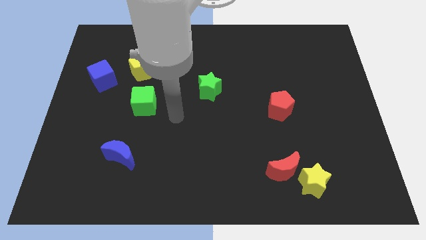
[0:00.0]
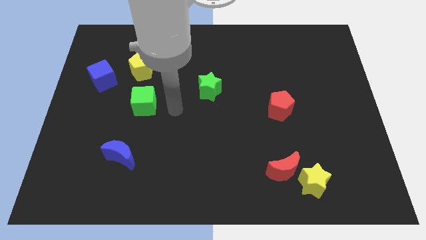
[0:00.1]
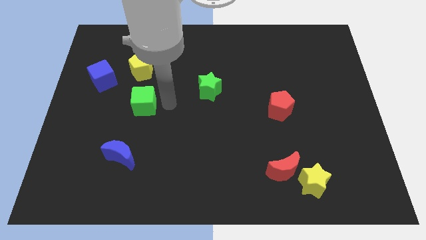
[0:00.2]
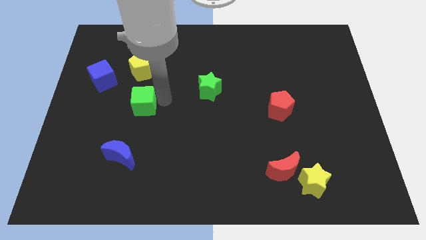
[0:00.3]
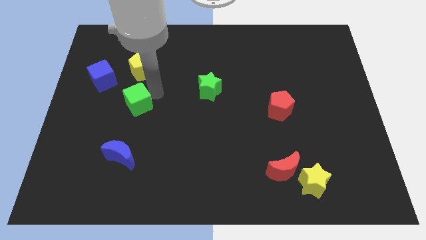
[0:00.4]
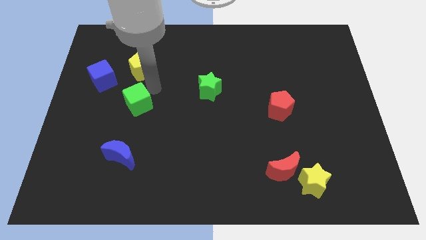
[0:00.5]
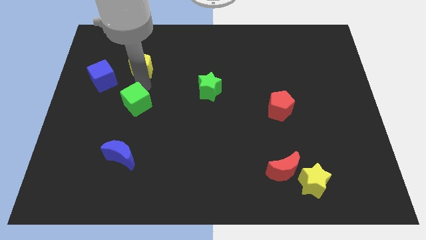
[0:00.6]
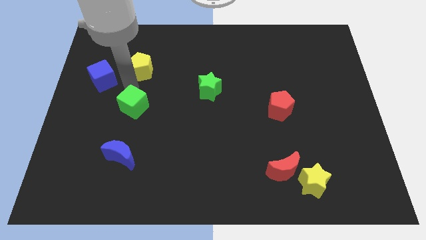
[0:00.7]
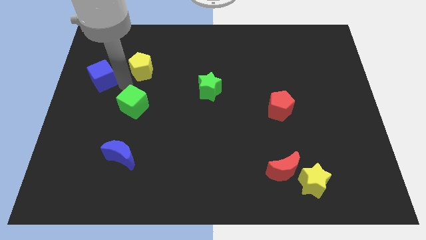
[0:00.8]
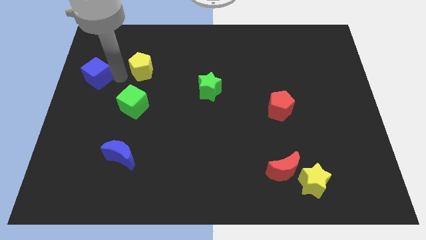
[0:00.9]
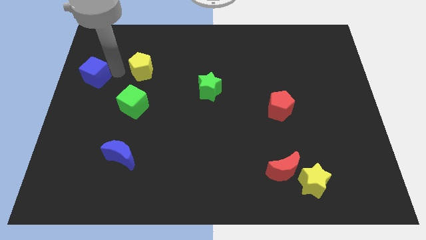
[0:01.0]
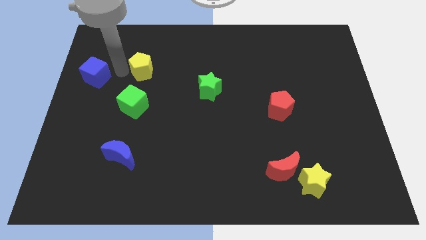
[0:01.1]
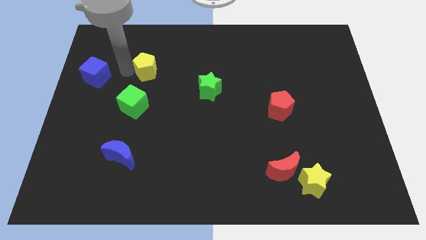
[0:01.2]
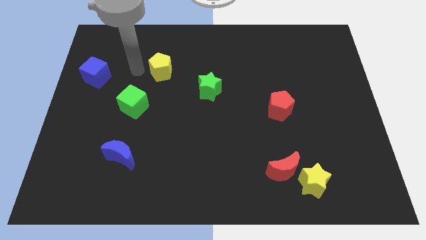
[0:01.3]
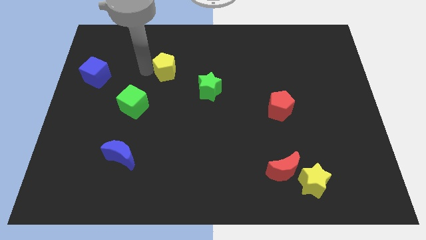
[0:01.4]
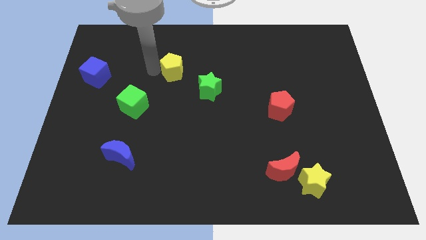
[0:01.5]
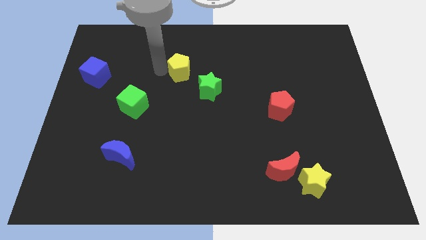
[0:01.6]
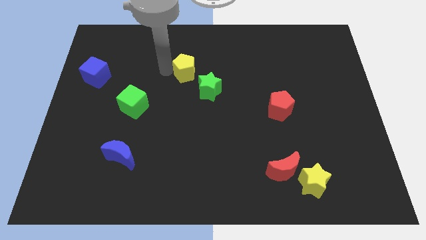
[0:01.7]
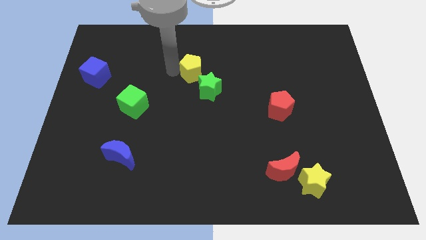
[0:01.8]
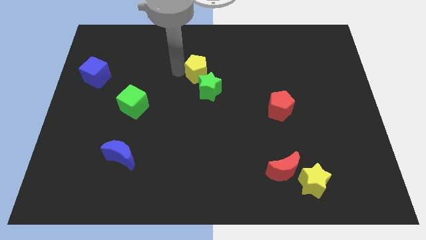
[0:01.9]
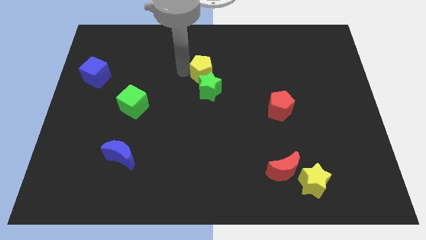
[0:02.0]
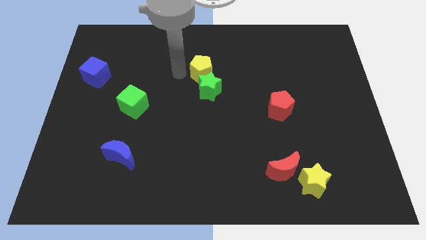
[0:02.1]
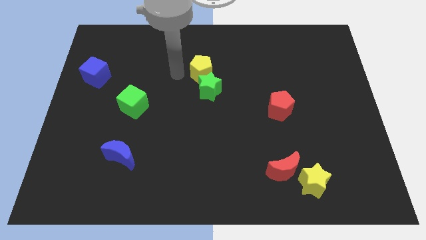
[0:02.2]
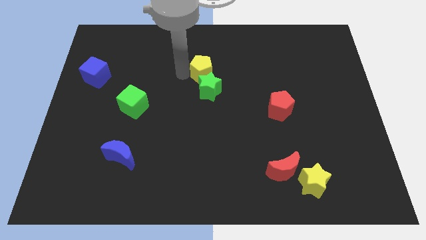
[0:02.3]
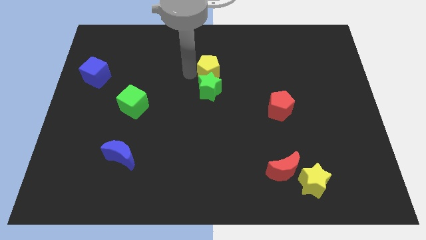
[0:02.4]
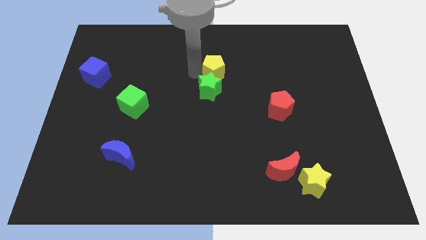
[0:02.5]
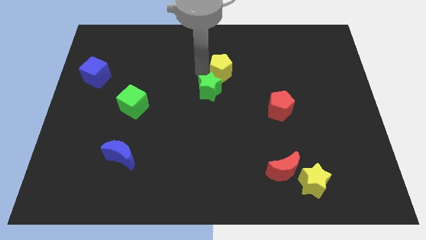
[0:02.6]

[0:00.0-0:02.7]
slide the yellow pentagon to the right

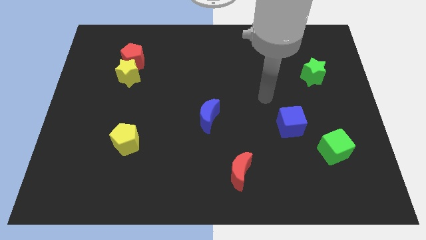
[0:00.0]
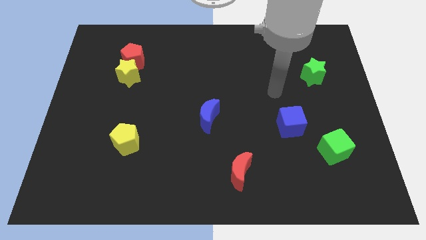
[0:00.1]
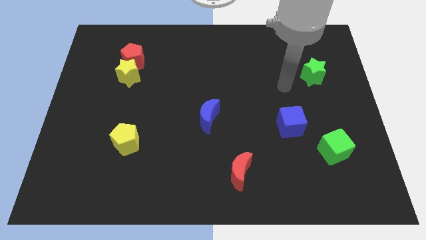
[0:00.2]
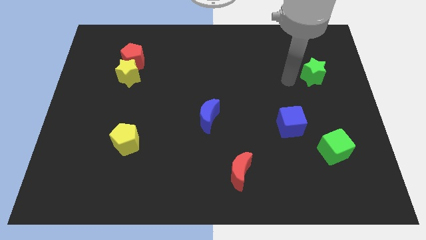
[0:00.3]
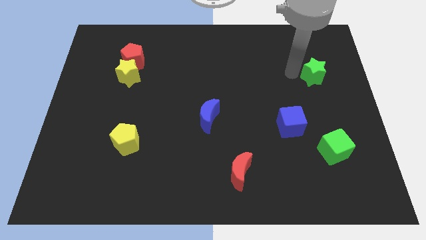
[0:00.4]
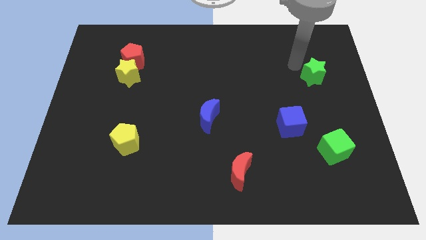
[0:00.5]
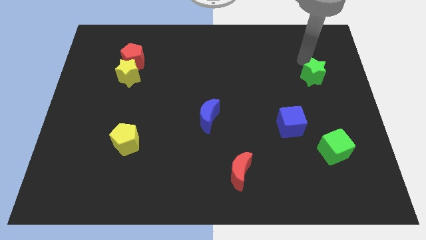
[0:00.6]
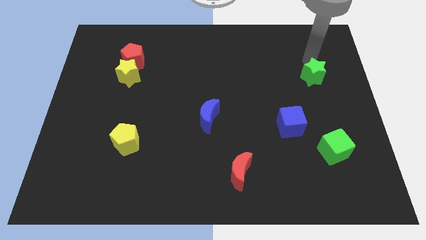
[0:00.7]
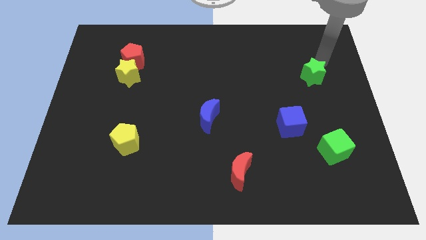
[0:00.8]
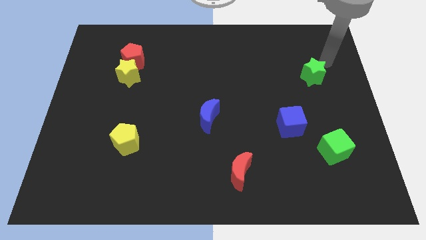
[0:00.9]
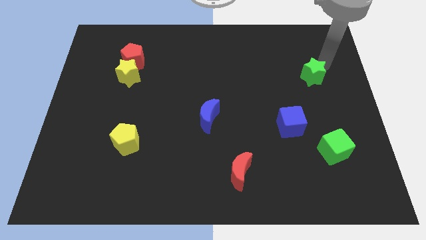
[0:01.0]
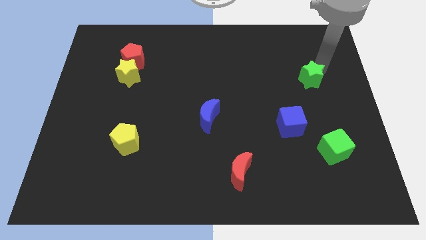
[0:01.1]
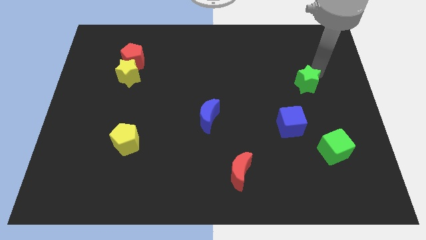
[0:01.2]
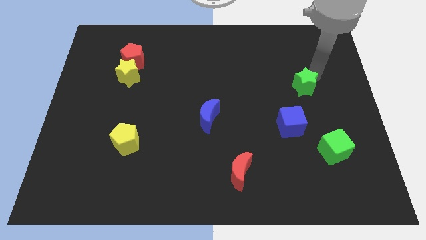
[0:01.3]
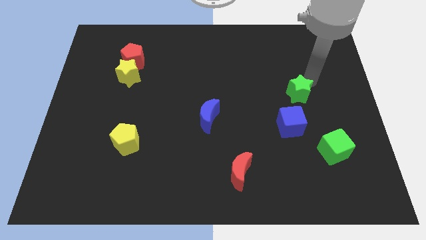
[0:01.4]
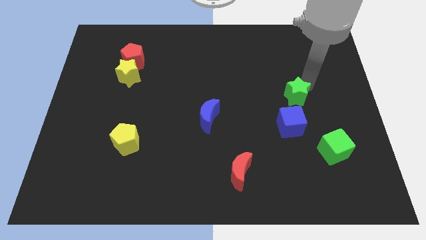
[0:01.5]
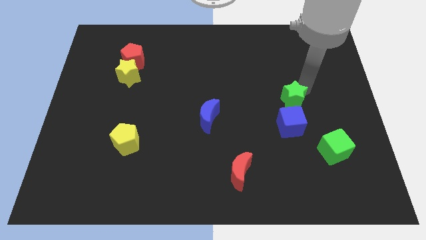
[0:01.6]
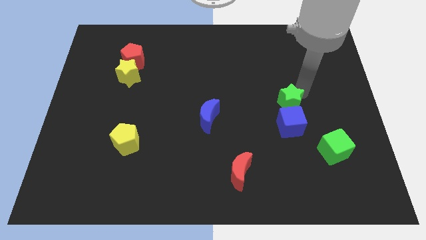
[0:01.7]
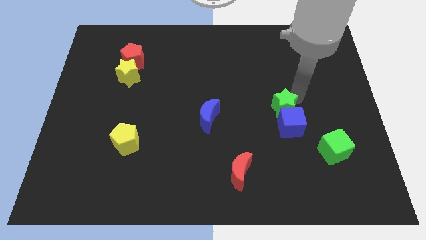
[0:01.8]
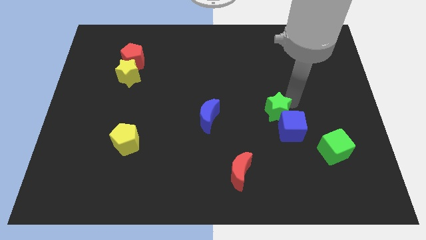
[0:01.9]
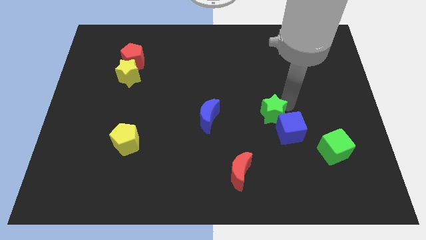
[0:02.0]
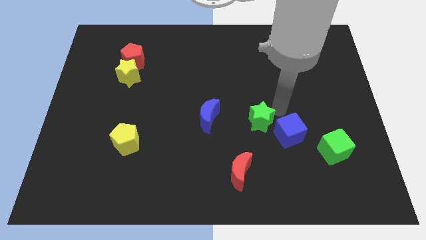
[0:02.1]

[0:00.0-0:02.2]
push the green star diagonally down and to the left

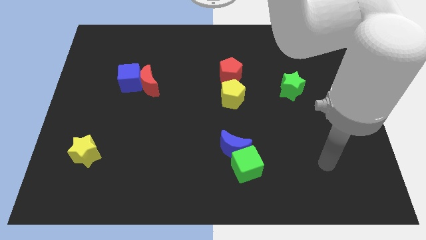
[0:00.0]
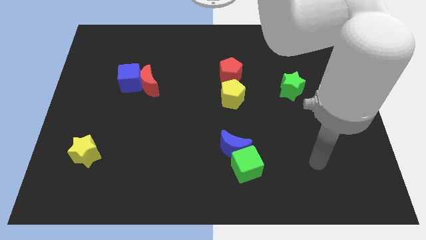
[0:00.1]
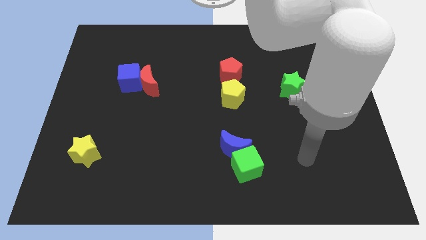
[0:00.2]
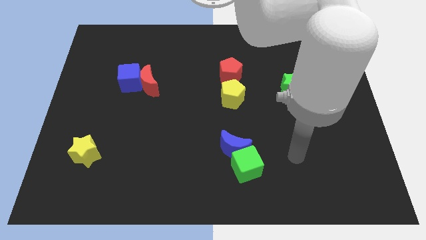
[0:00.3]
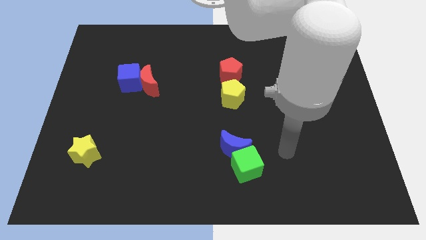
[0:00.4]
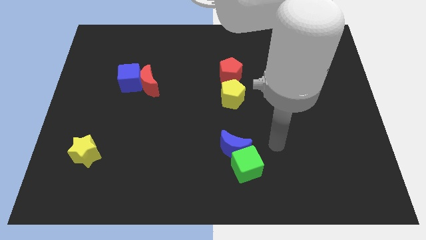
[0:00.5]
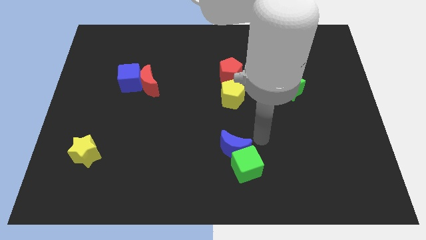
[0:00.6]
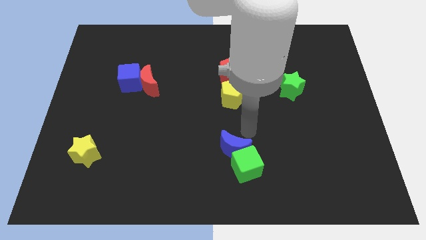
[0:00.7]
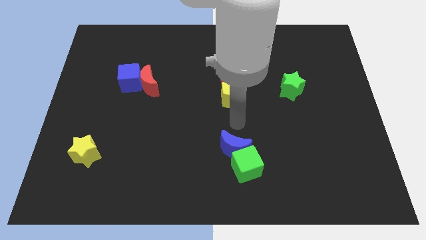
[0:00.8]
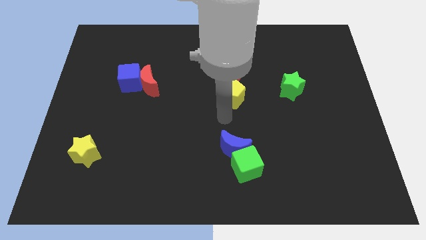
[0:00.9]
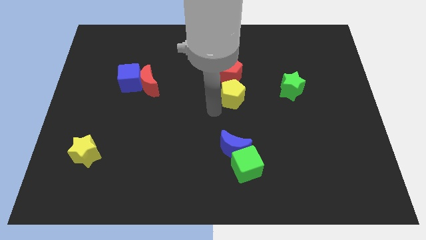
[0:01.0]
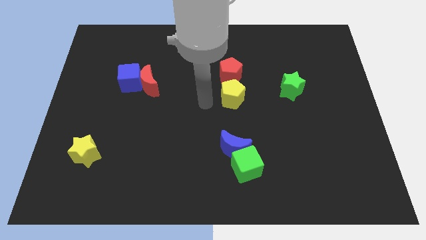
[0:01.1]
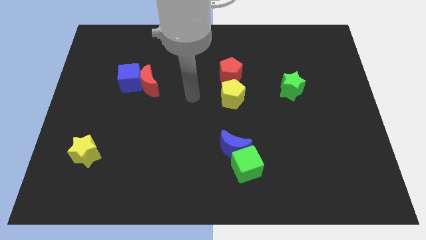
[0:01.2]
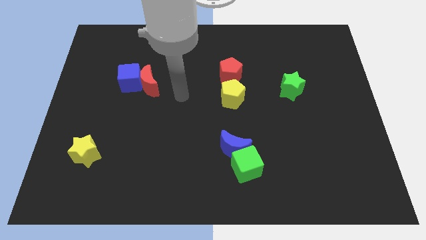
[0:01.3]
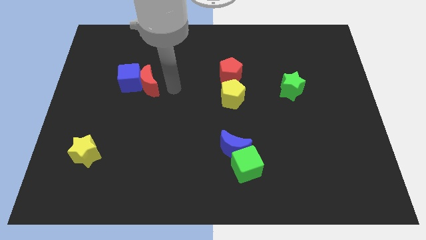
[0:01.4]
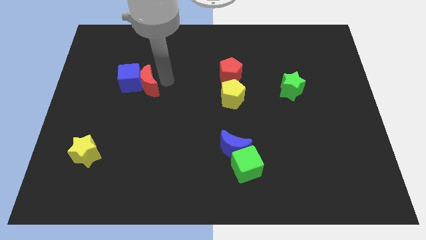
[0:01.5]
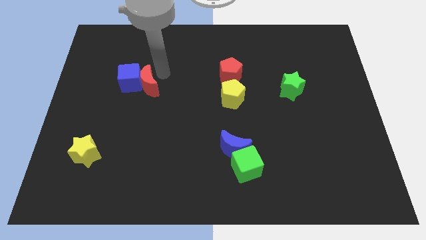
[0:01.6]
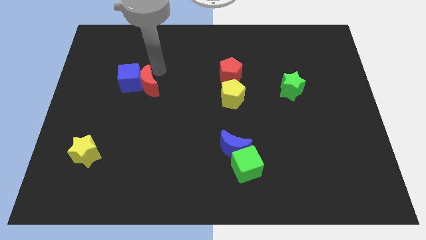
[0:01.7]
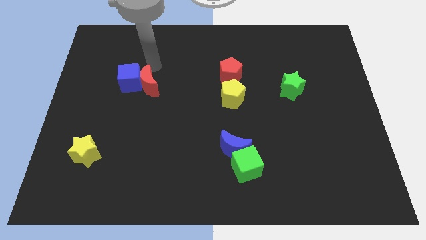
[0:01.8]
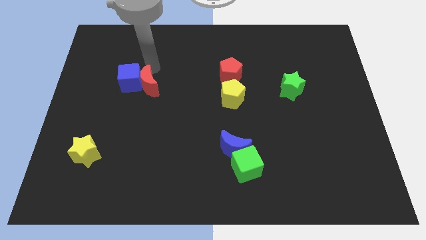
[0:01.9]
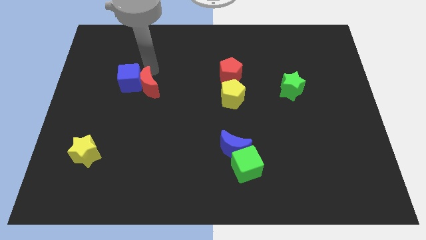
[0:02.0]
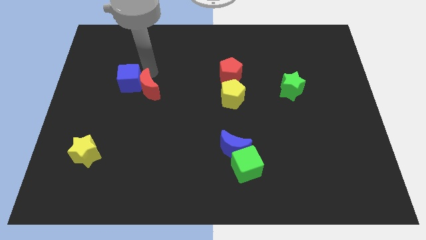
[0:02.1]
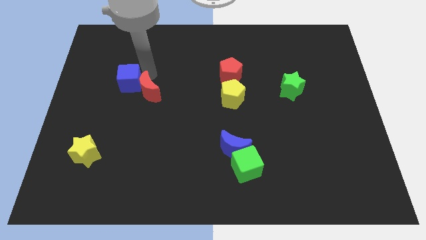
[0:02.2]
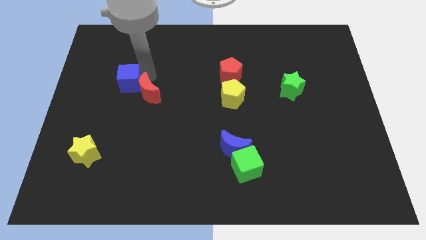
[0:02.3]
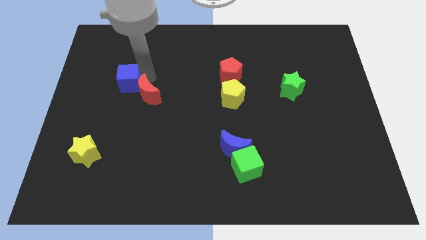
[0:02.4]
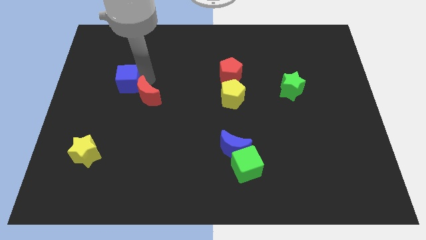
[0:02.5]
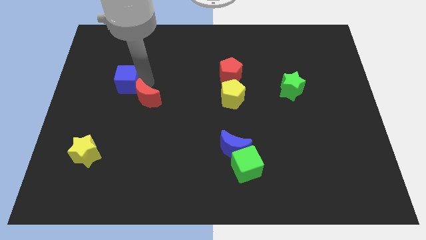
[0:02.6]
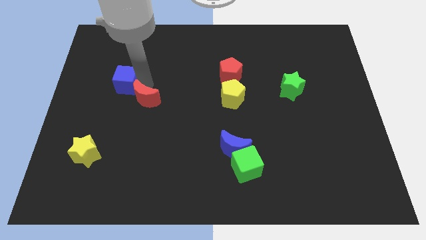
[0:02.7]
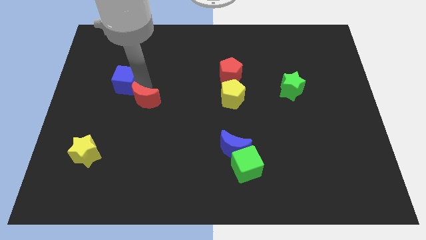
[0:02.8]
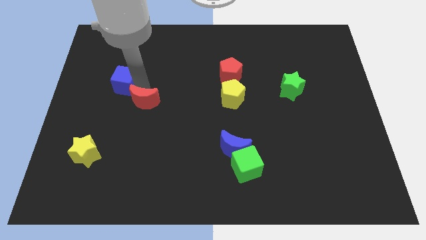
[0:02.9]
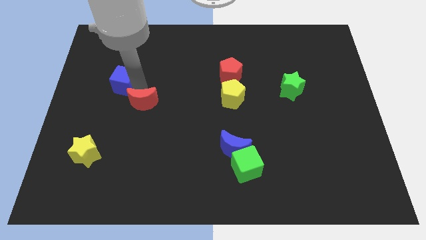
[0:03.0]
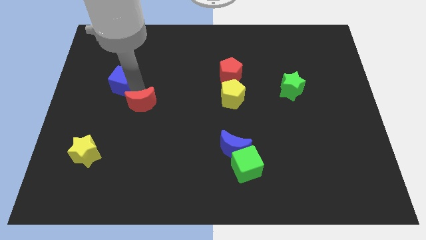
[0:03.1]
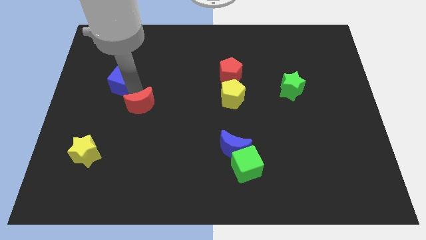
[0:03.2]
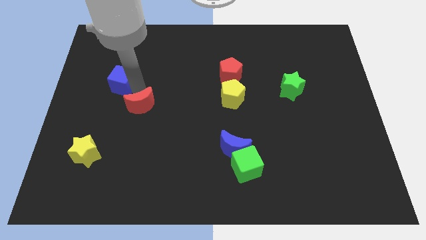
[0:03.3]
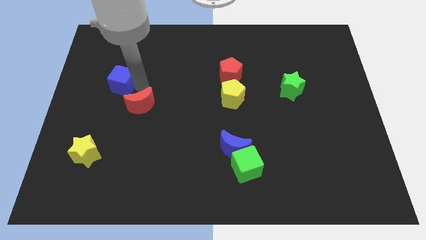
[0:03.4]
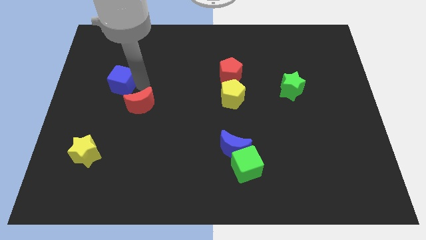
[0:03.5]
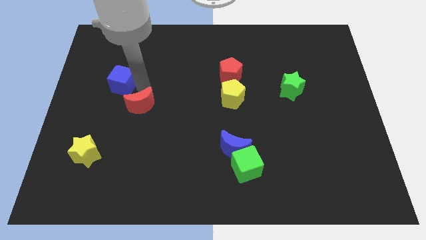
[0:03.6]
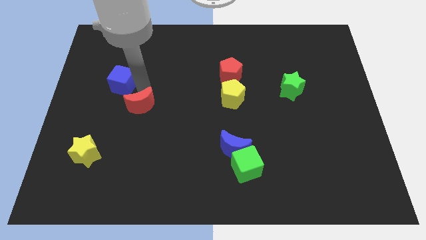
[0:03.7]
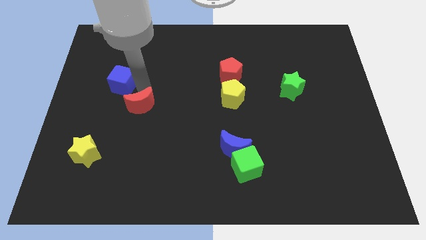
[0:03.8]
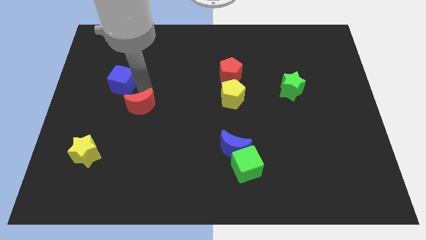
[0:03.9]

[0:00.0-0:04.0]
slightly slide the red moon down
